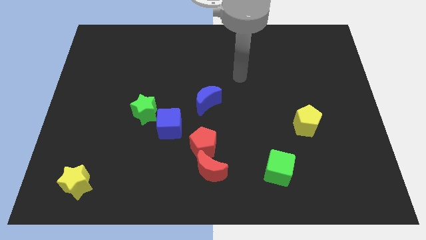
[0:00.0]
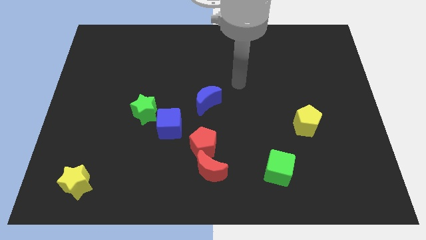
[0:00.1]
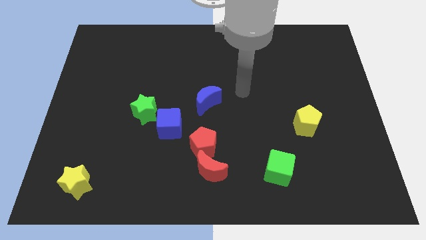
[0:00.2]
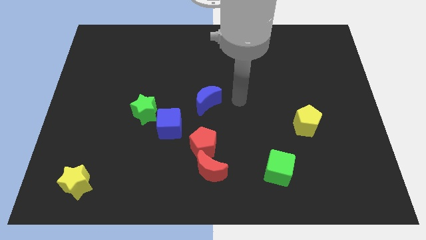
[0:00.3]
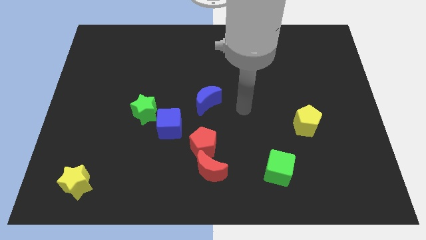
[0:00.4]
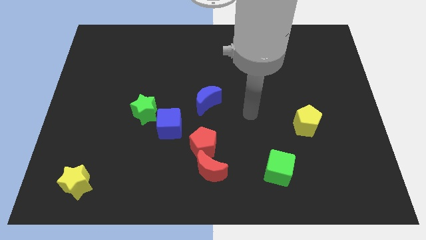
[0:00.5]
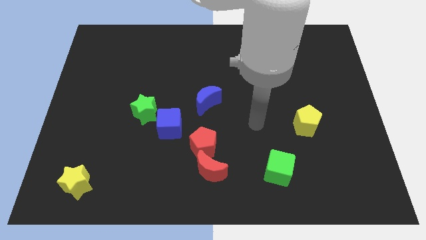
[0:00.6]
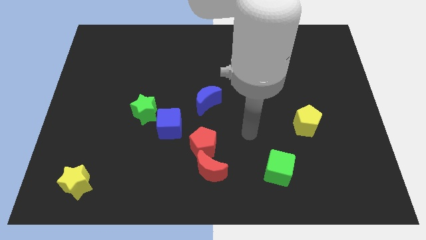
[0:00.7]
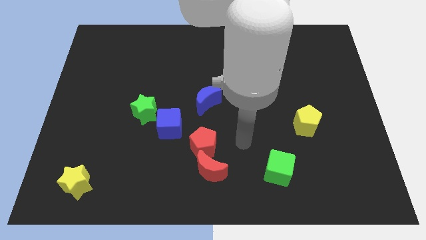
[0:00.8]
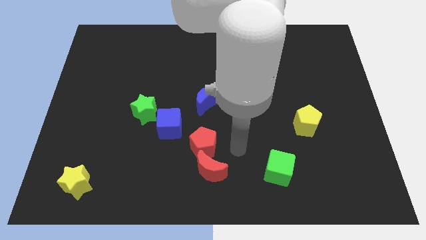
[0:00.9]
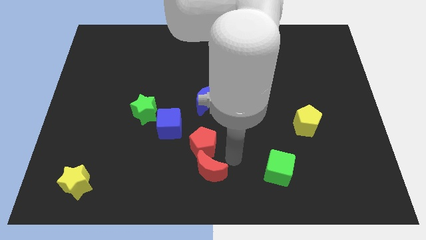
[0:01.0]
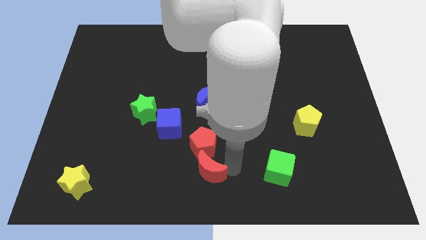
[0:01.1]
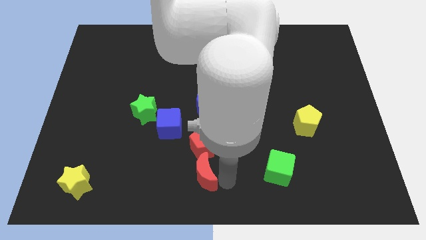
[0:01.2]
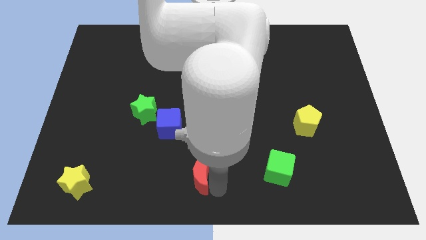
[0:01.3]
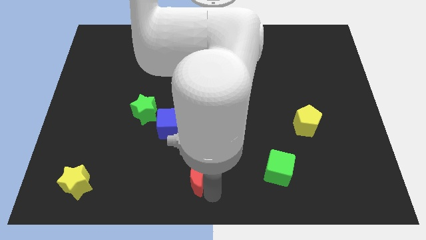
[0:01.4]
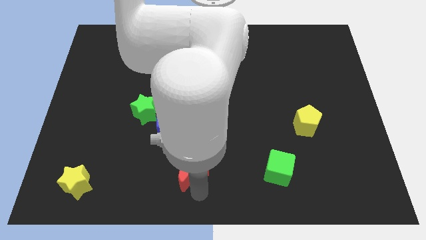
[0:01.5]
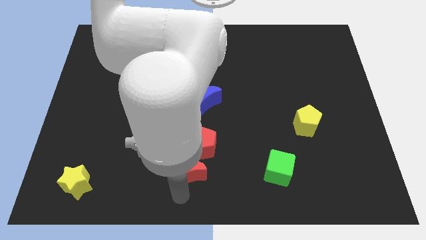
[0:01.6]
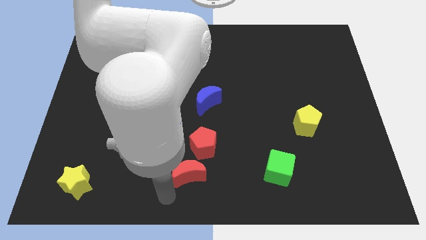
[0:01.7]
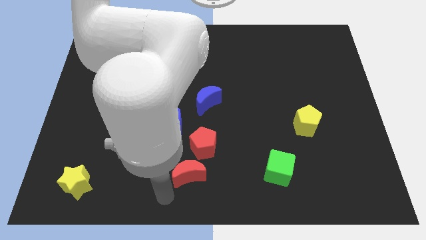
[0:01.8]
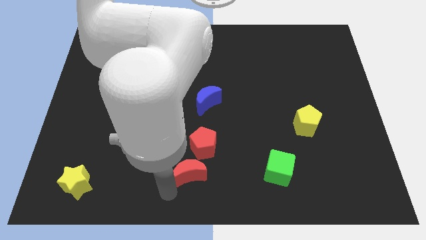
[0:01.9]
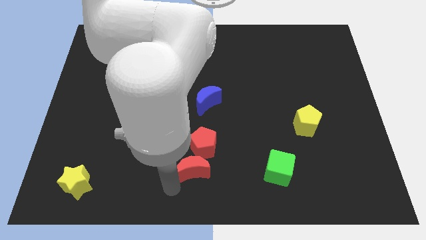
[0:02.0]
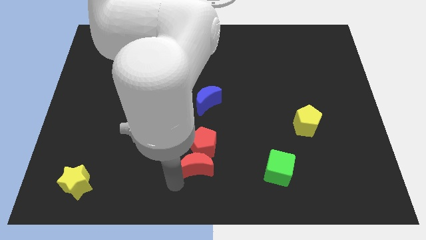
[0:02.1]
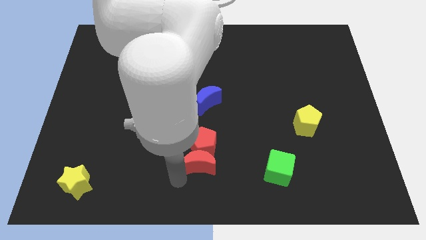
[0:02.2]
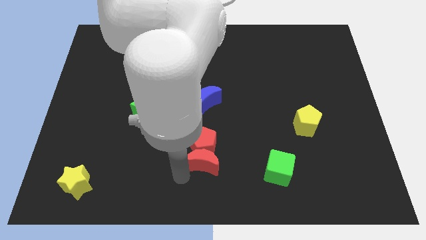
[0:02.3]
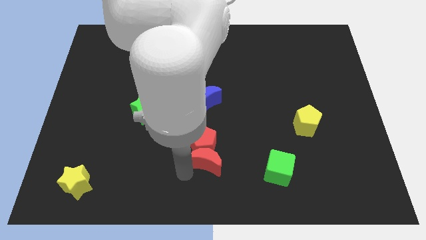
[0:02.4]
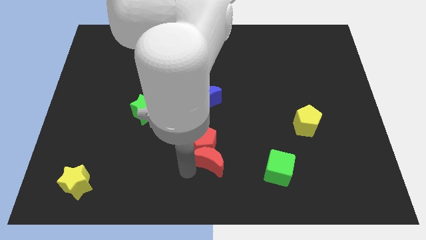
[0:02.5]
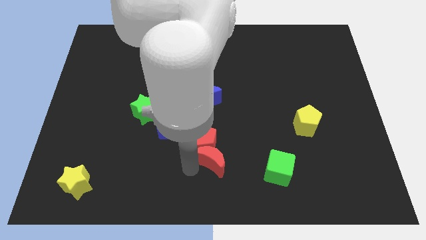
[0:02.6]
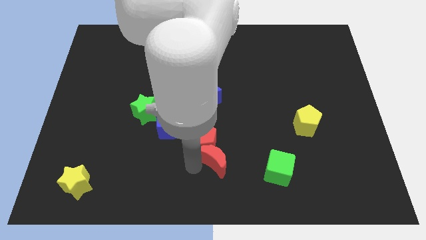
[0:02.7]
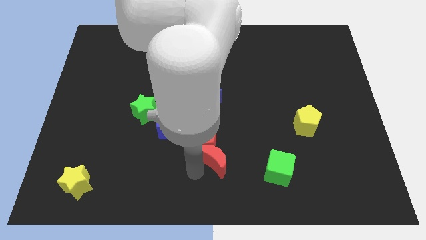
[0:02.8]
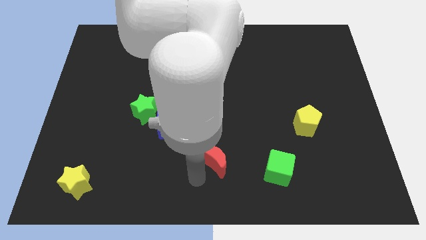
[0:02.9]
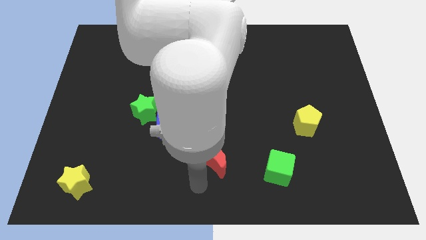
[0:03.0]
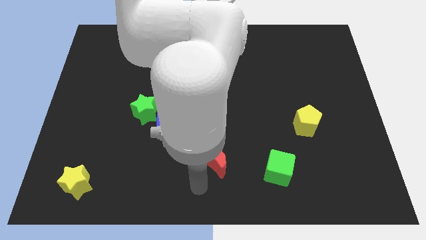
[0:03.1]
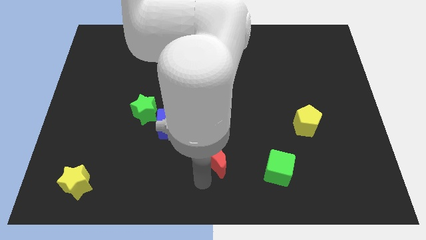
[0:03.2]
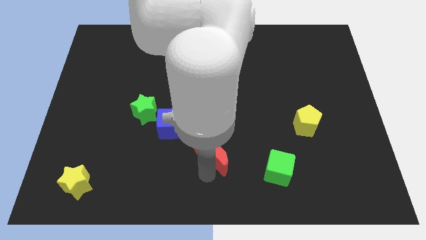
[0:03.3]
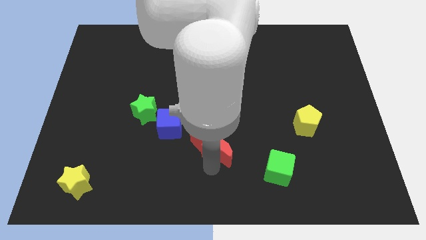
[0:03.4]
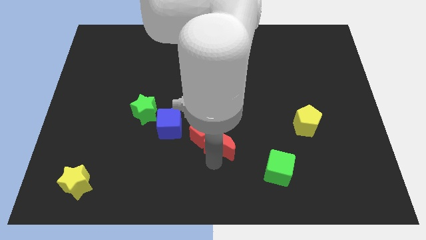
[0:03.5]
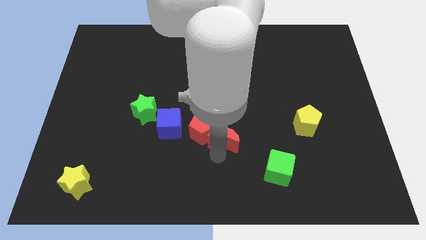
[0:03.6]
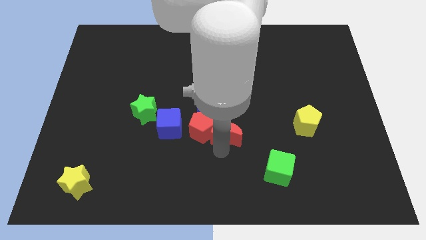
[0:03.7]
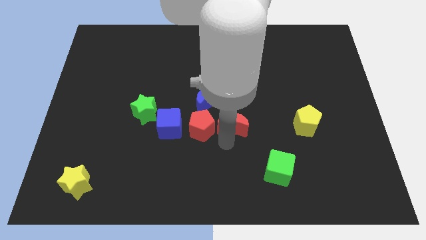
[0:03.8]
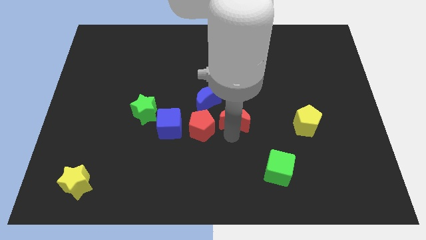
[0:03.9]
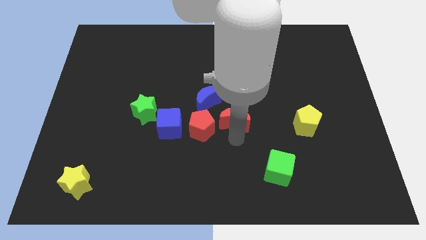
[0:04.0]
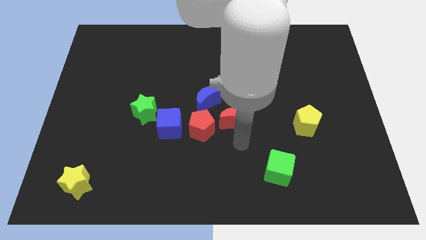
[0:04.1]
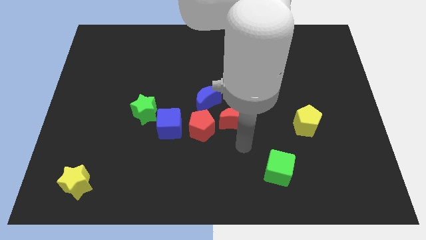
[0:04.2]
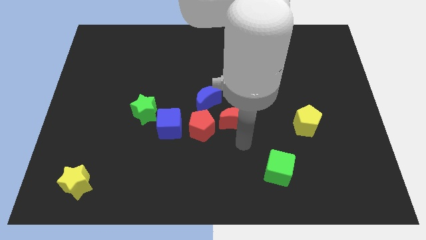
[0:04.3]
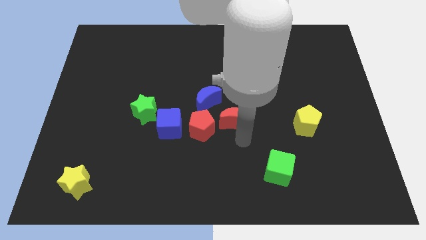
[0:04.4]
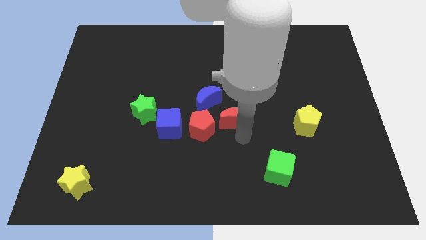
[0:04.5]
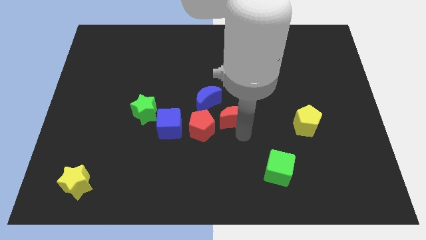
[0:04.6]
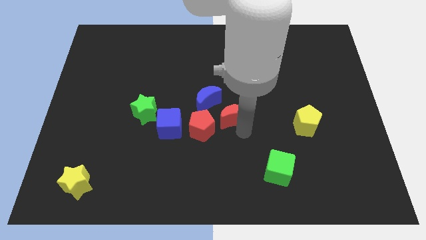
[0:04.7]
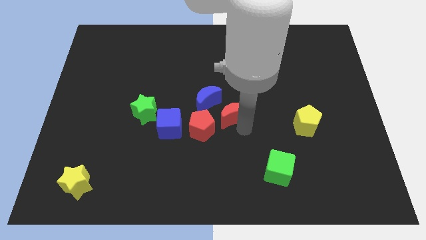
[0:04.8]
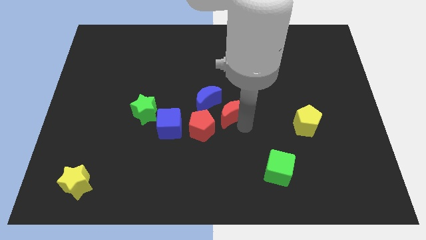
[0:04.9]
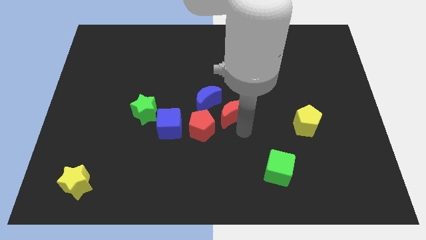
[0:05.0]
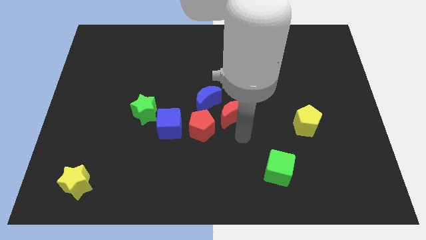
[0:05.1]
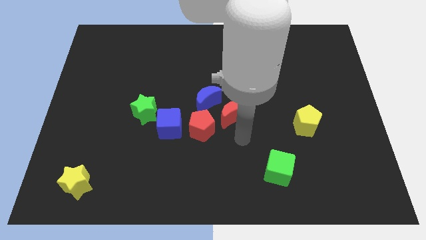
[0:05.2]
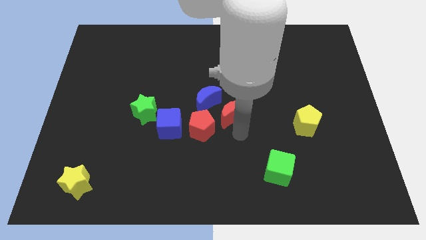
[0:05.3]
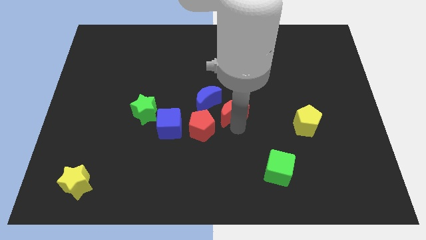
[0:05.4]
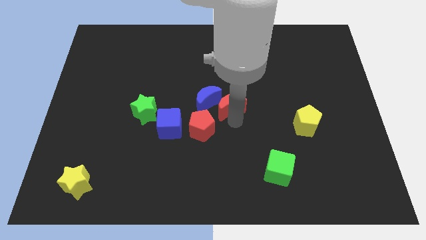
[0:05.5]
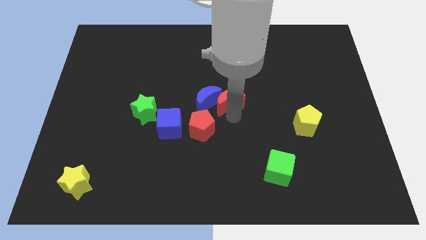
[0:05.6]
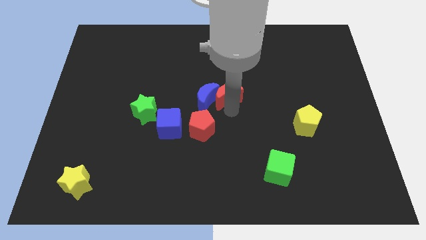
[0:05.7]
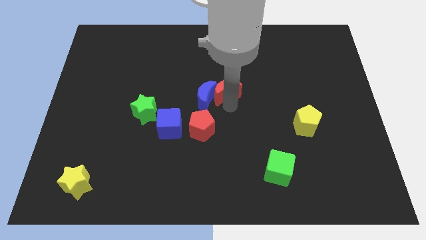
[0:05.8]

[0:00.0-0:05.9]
move the red moon upwards

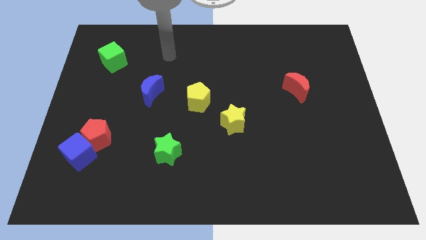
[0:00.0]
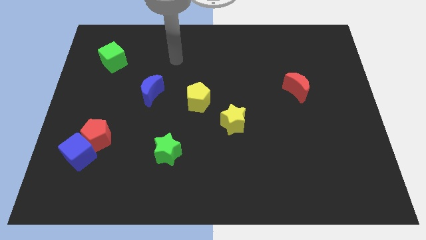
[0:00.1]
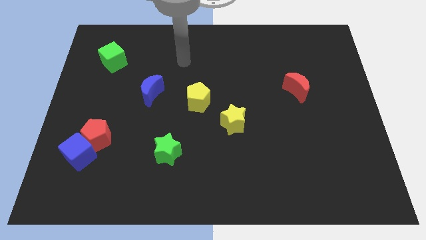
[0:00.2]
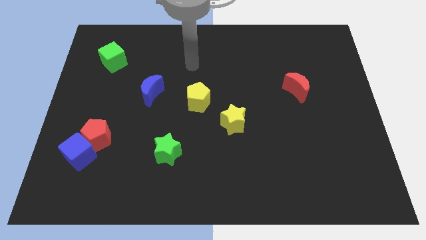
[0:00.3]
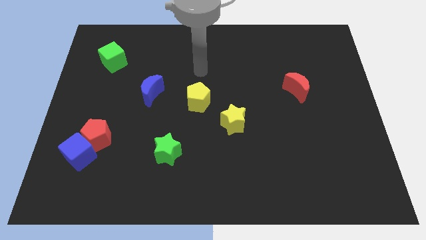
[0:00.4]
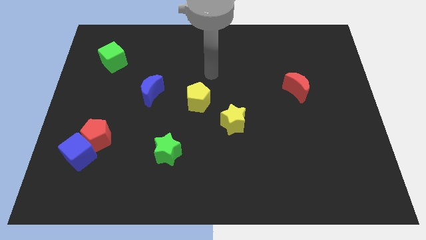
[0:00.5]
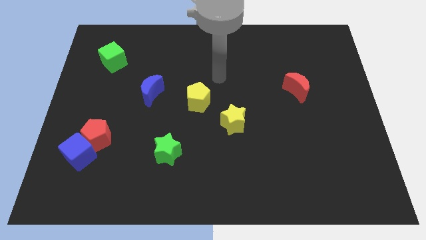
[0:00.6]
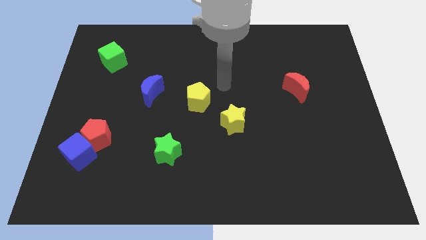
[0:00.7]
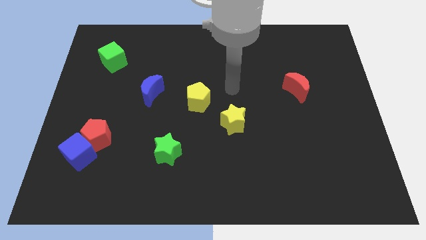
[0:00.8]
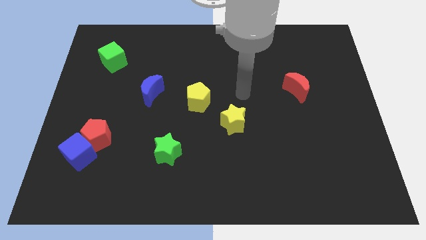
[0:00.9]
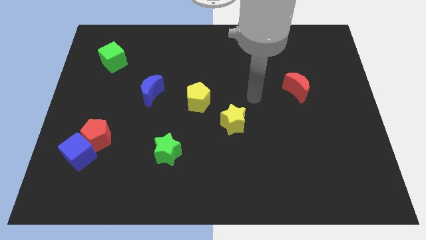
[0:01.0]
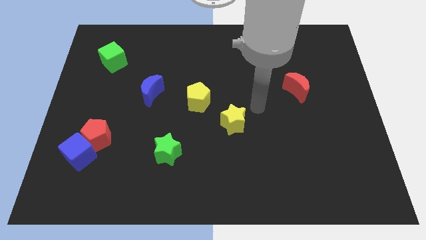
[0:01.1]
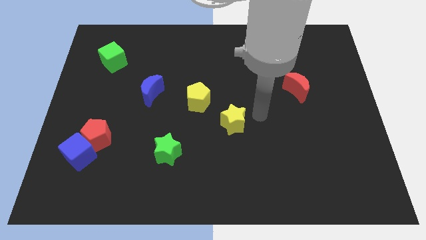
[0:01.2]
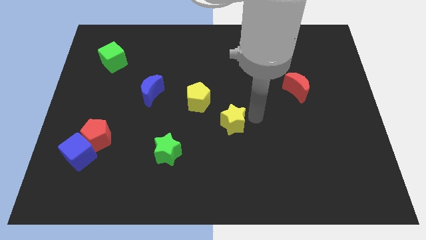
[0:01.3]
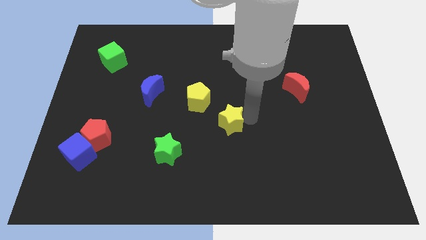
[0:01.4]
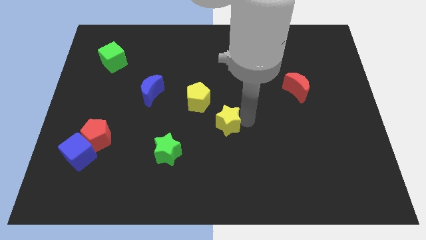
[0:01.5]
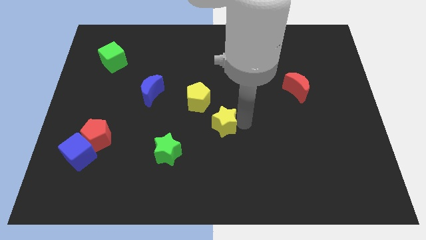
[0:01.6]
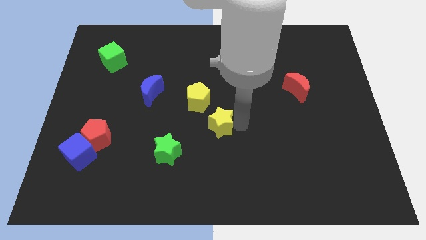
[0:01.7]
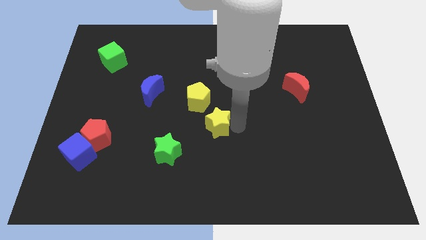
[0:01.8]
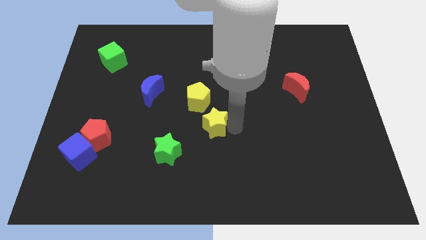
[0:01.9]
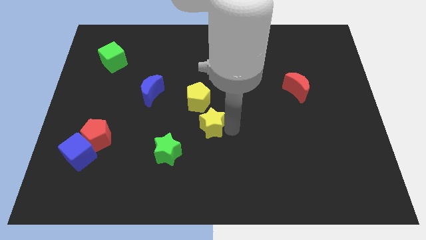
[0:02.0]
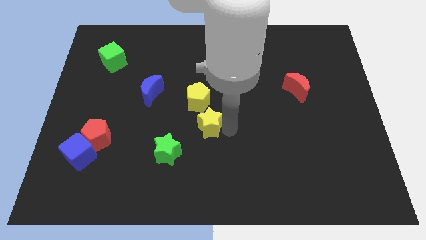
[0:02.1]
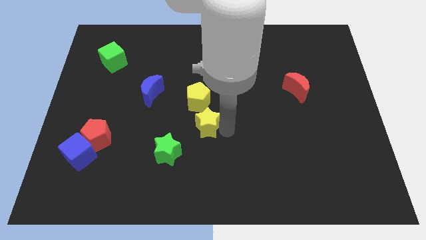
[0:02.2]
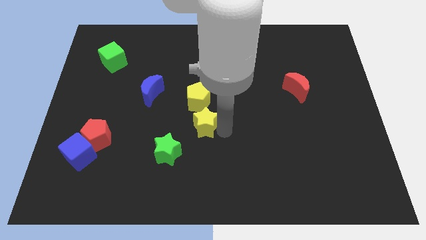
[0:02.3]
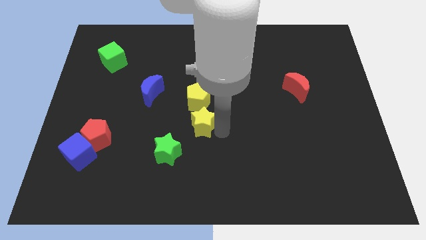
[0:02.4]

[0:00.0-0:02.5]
move the yellow star a little to the left
